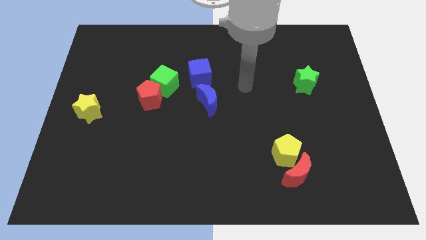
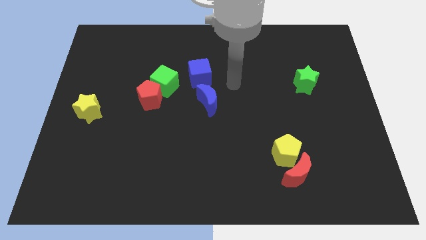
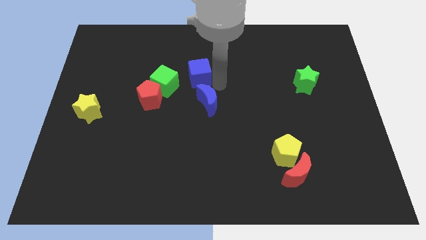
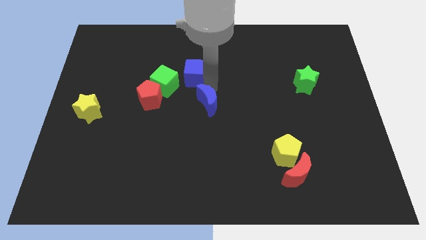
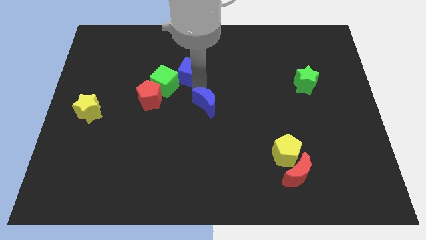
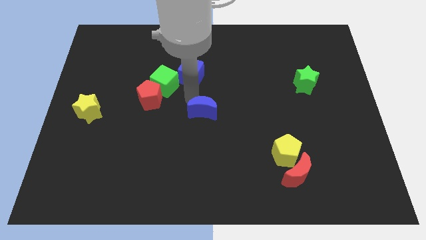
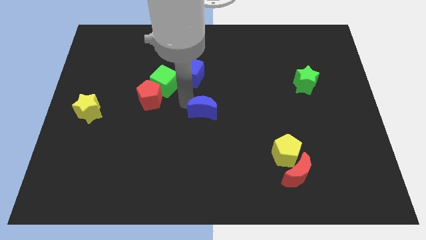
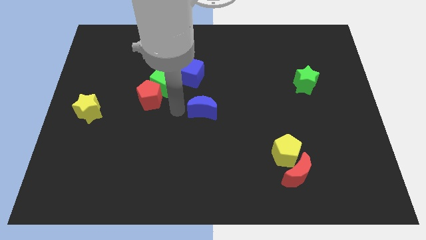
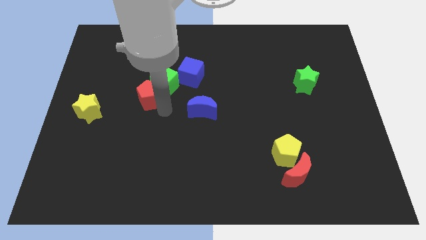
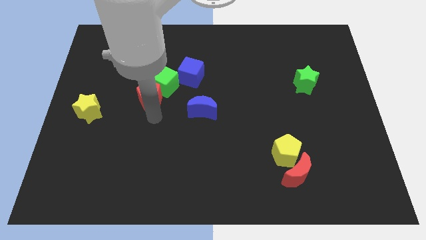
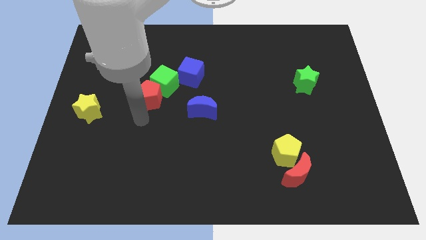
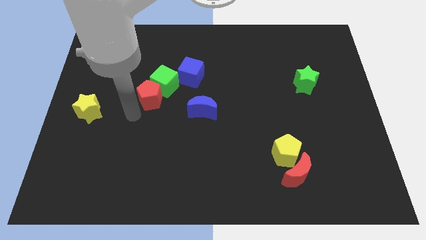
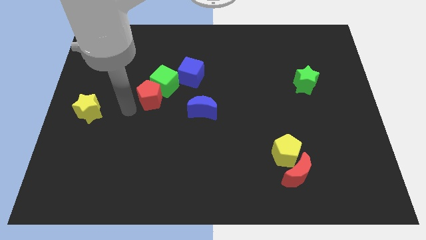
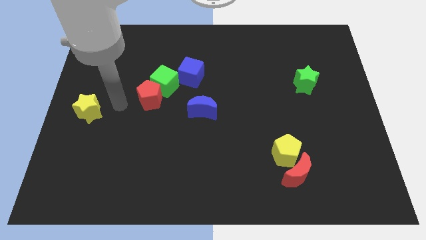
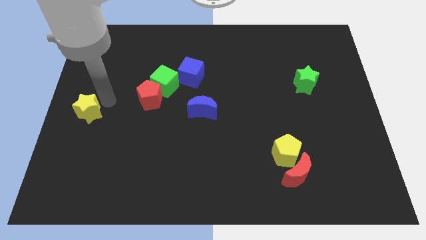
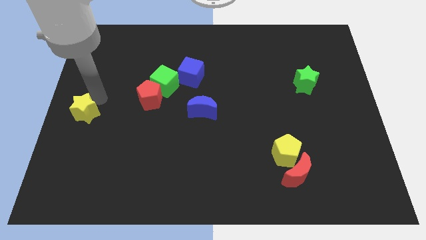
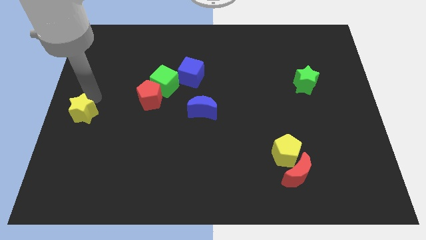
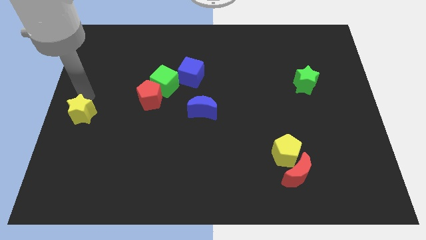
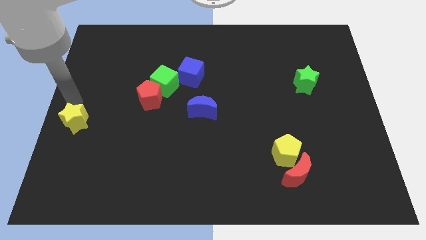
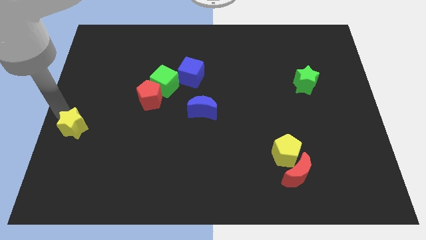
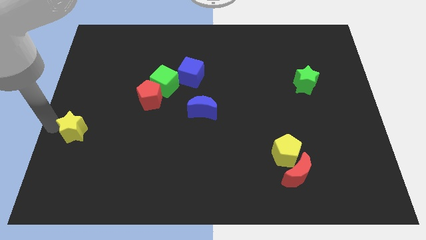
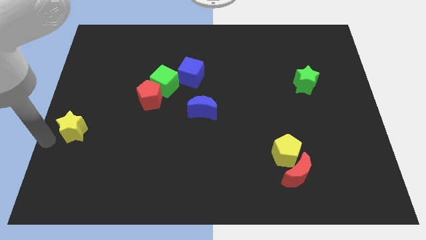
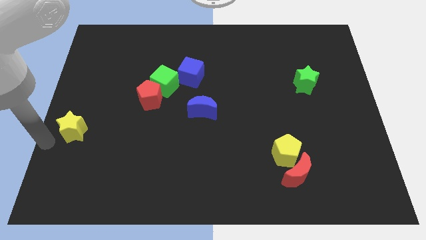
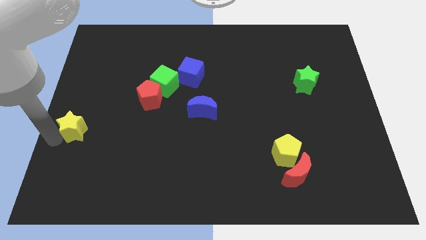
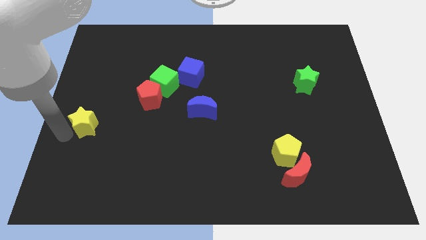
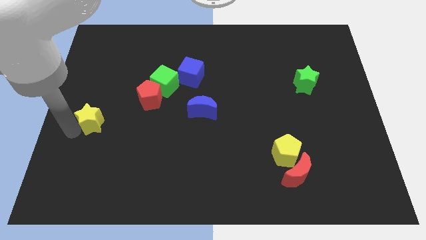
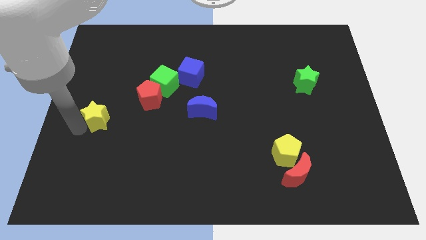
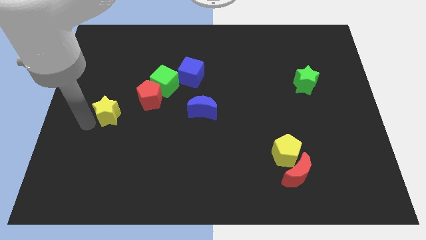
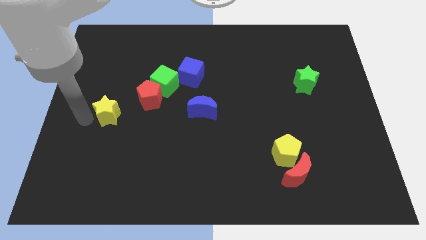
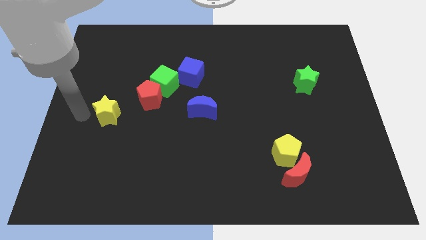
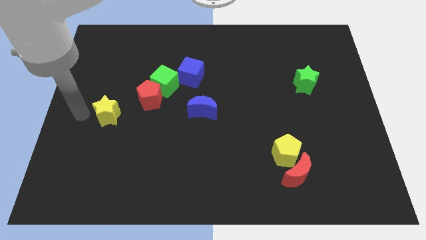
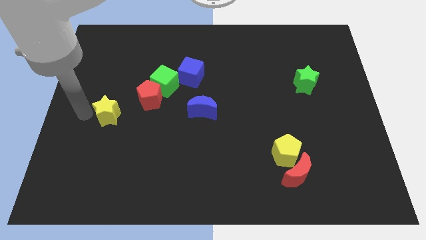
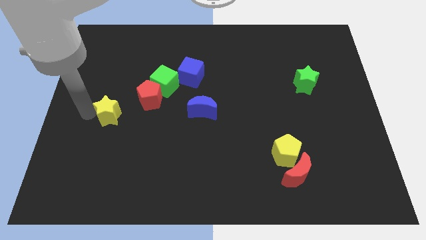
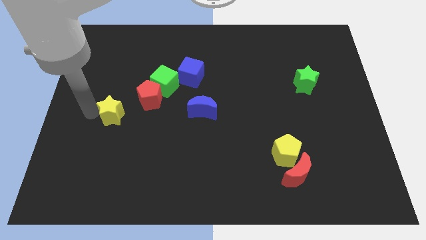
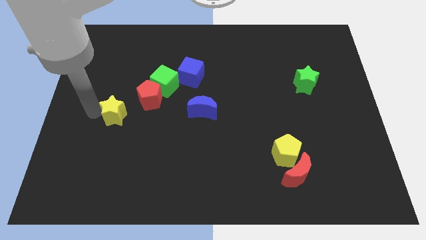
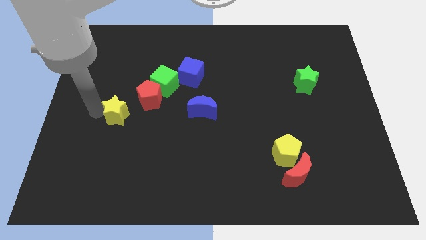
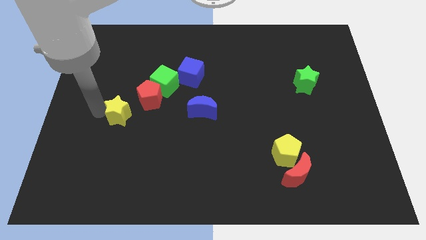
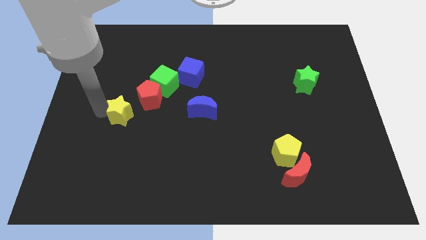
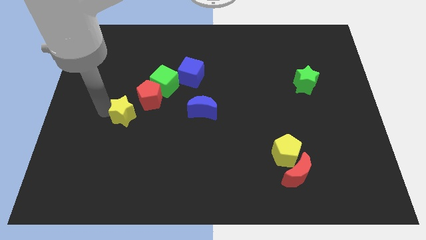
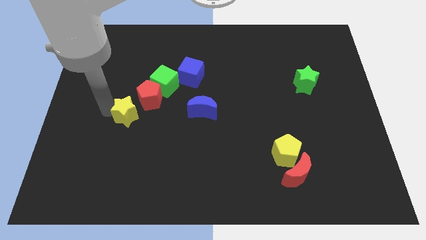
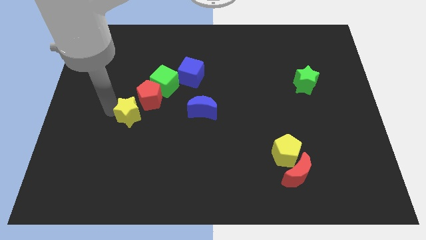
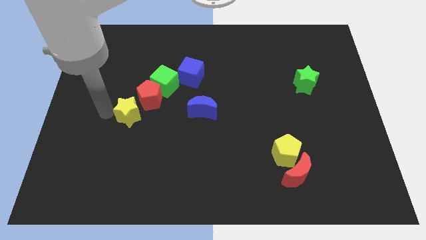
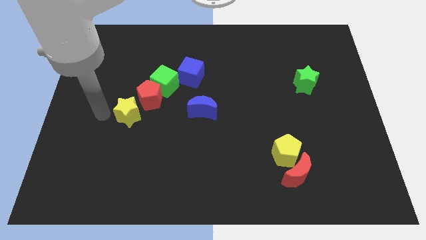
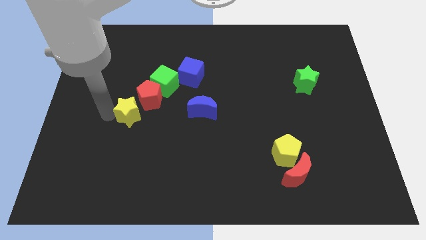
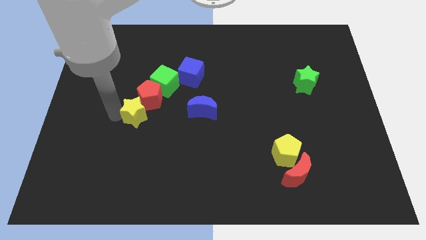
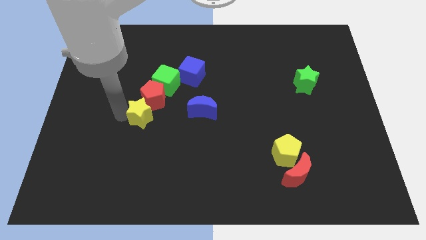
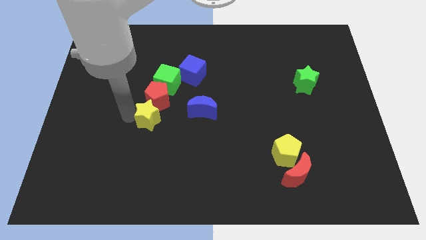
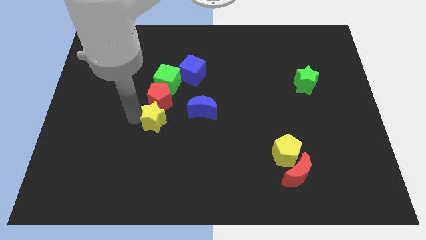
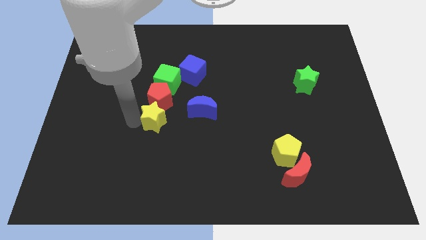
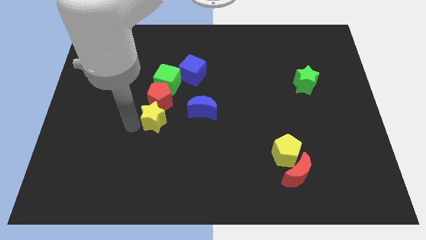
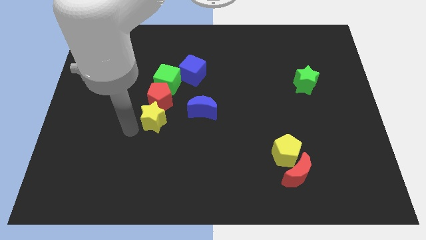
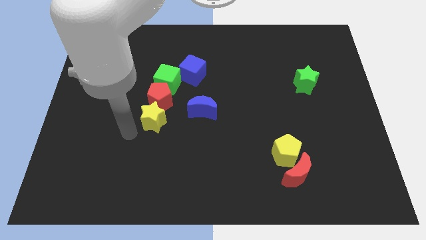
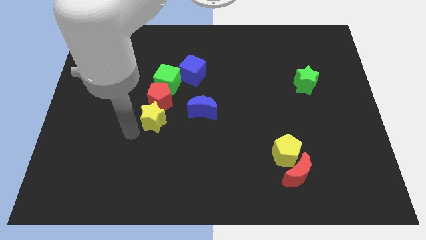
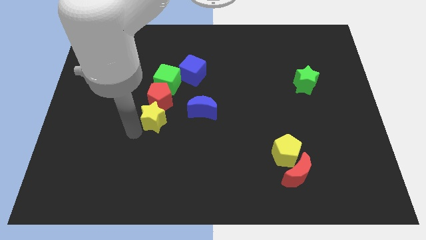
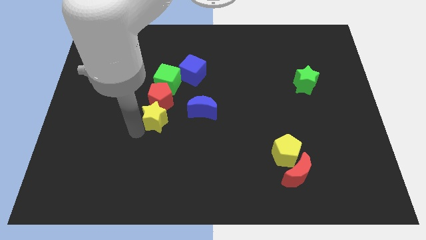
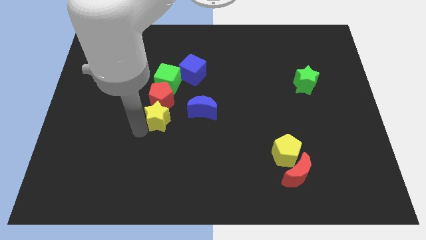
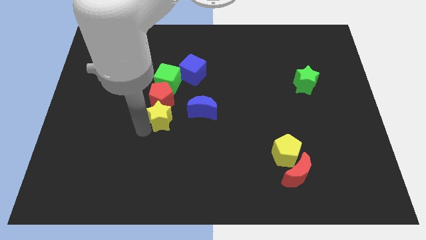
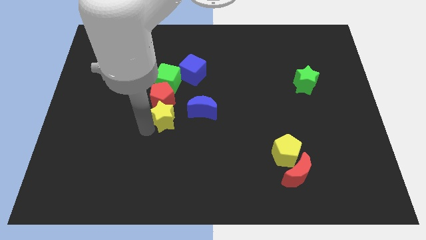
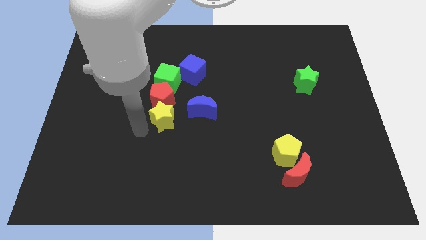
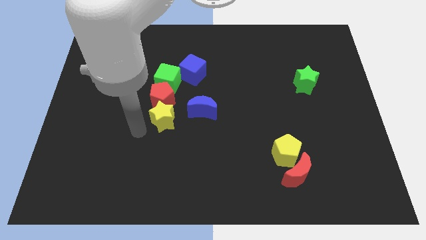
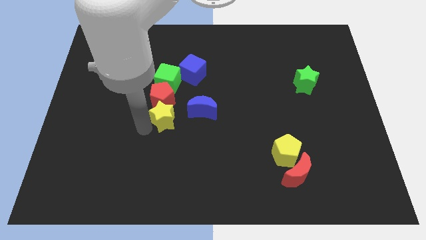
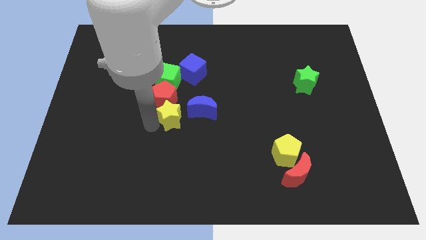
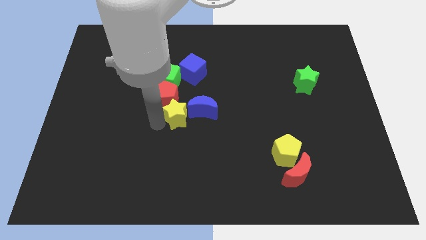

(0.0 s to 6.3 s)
move the yellow star towards the blue moon
